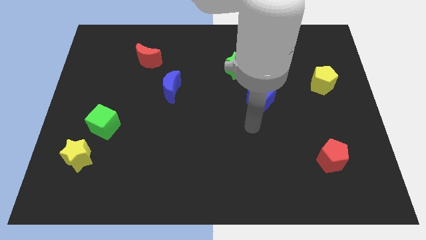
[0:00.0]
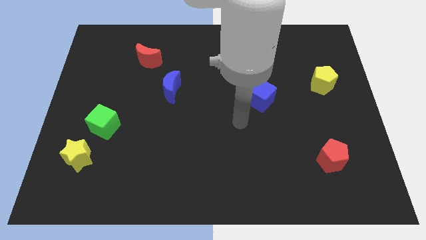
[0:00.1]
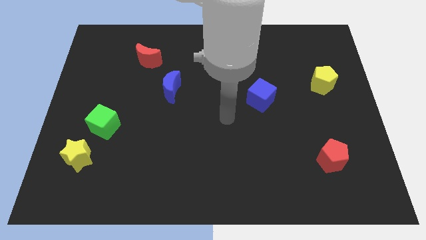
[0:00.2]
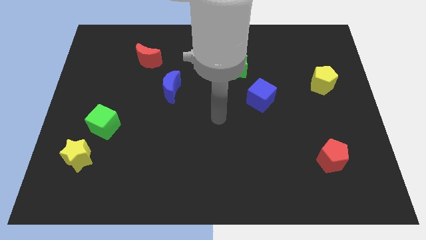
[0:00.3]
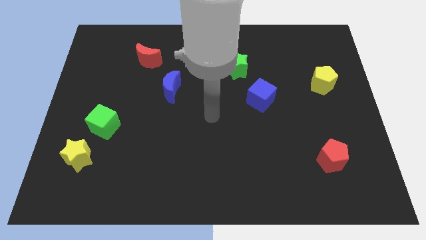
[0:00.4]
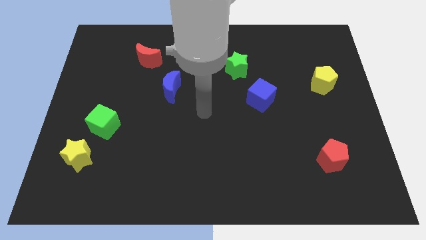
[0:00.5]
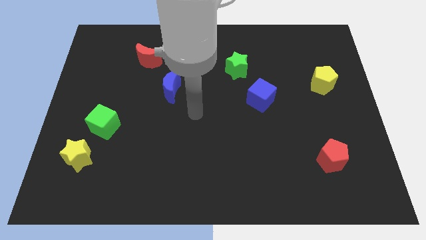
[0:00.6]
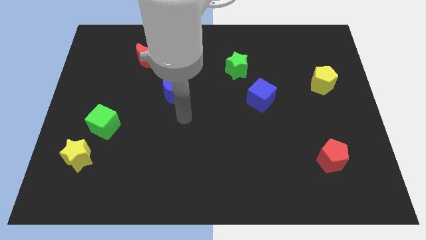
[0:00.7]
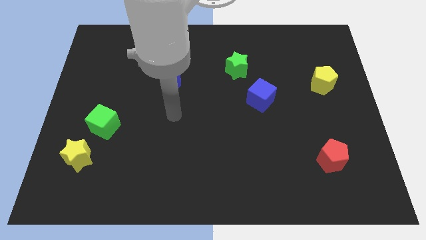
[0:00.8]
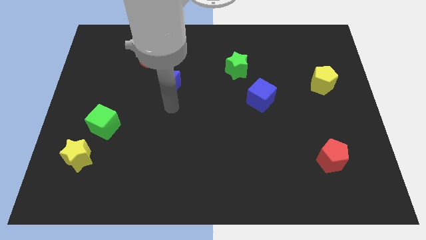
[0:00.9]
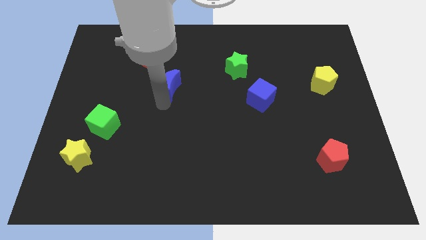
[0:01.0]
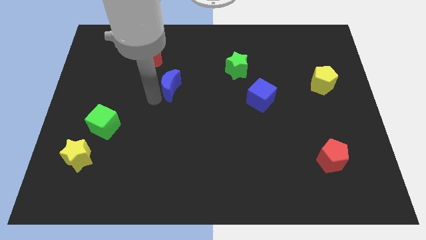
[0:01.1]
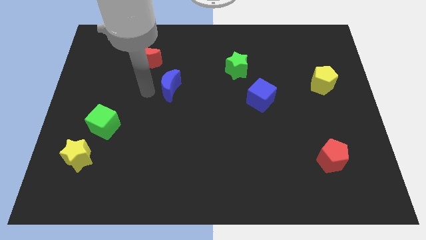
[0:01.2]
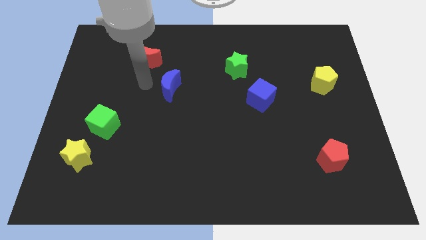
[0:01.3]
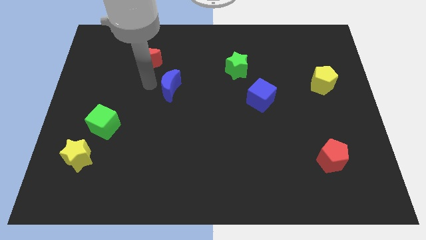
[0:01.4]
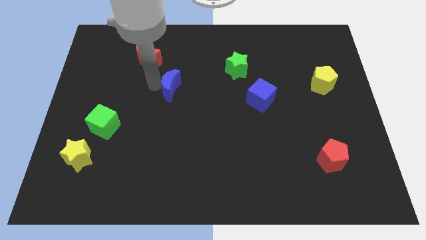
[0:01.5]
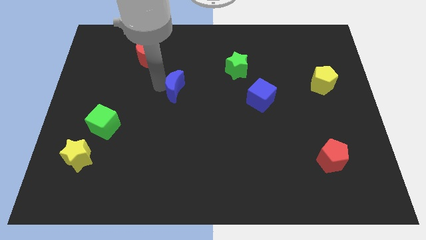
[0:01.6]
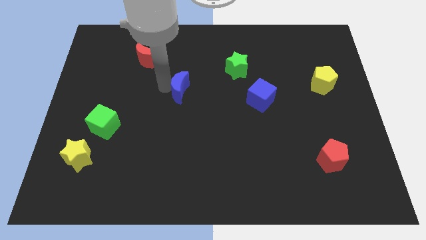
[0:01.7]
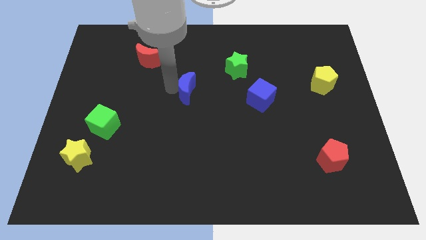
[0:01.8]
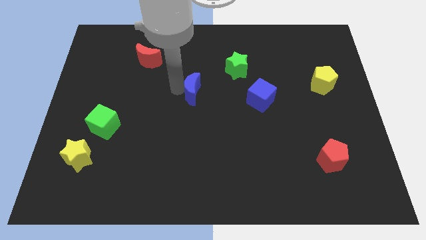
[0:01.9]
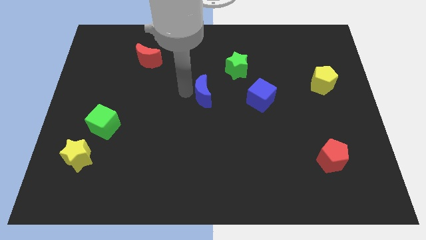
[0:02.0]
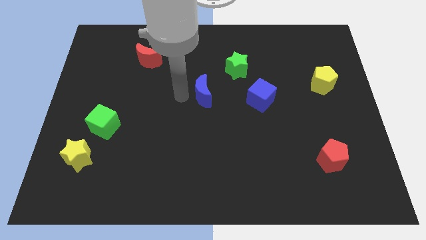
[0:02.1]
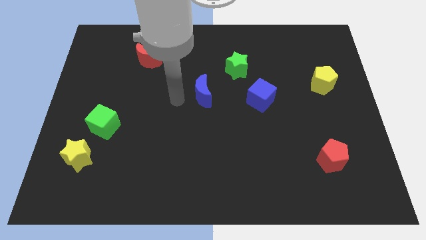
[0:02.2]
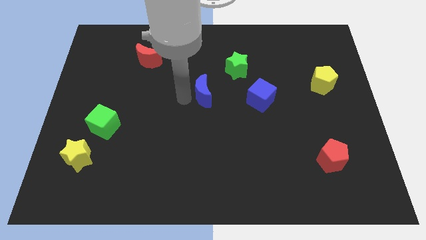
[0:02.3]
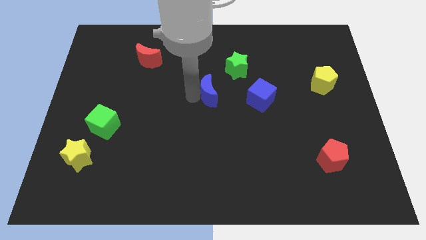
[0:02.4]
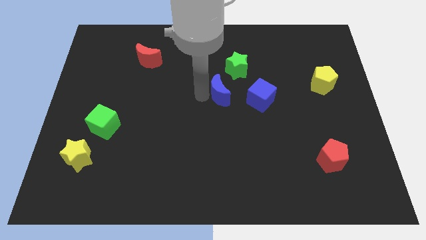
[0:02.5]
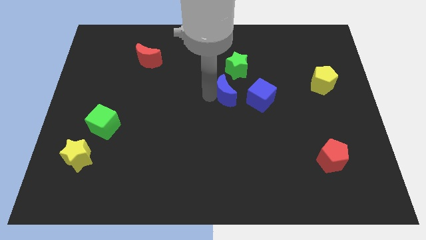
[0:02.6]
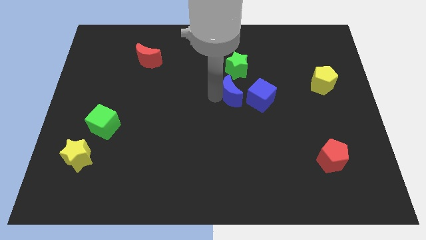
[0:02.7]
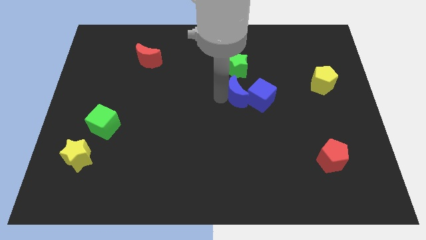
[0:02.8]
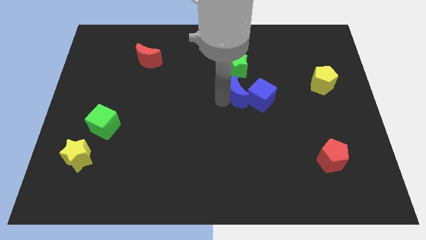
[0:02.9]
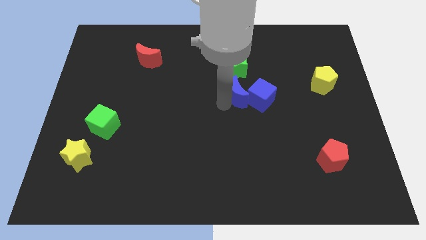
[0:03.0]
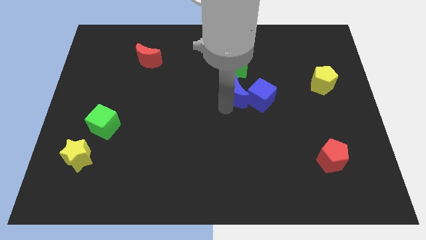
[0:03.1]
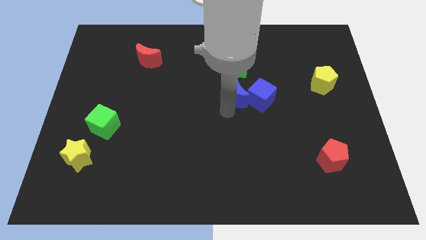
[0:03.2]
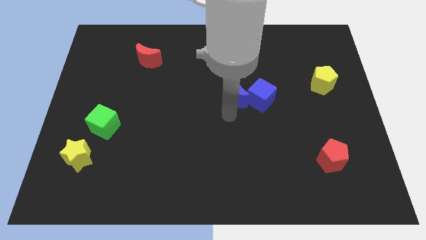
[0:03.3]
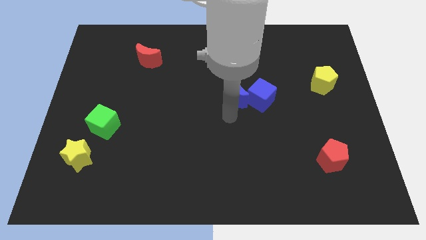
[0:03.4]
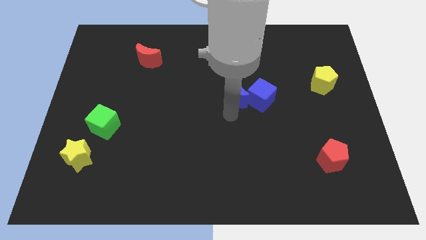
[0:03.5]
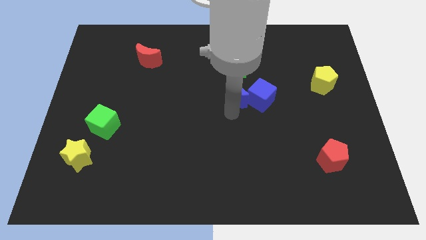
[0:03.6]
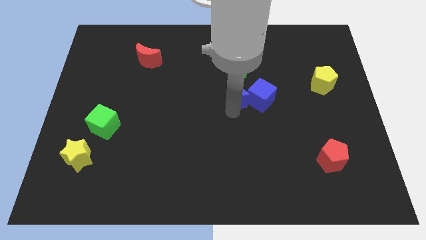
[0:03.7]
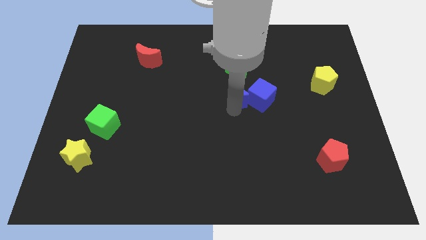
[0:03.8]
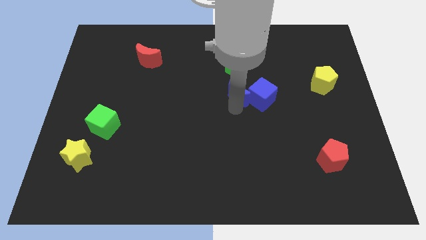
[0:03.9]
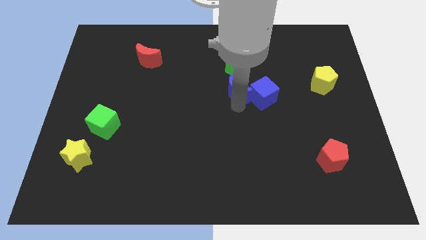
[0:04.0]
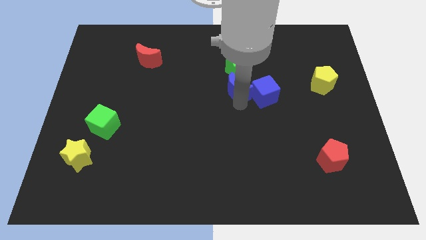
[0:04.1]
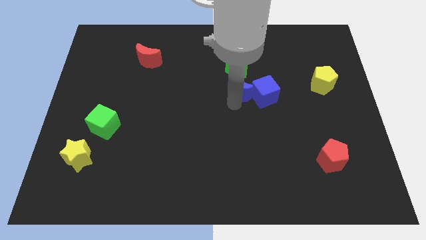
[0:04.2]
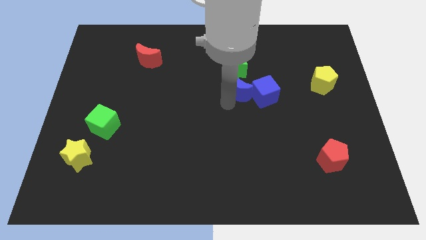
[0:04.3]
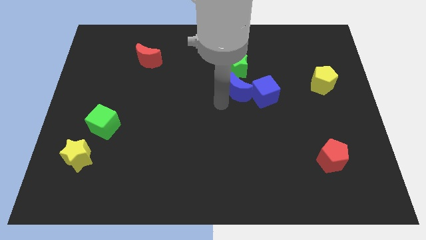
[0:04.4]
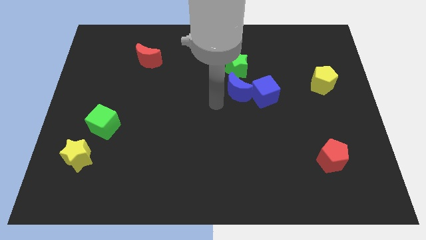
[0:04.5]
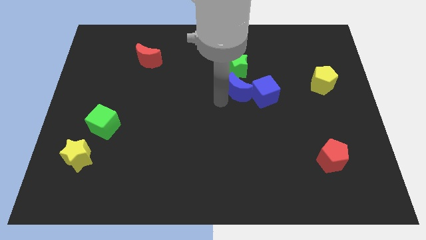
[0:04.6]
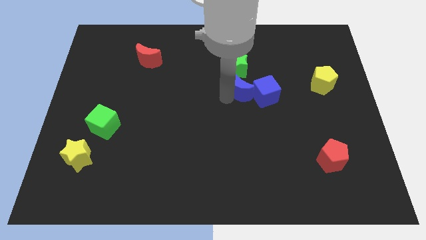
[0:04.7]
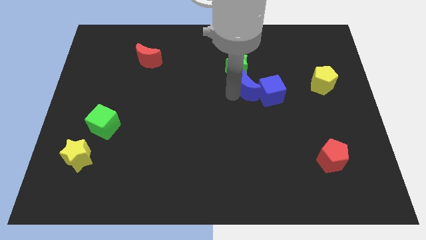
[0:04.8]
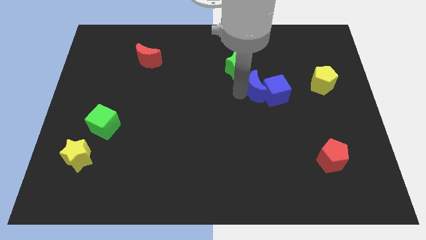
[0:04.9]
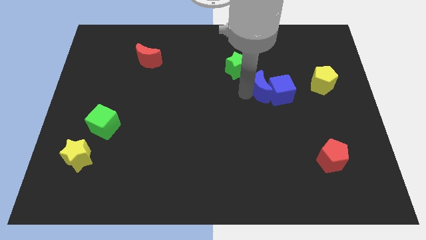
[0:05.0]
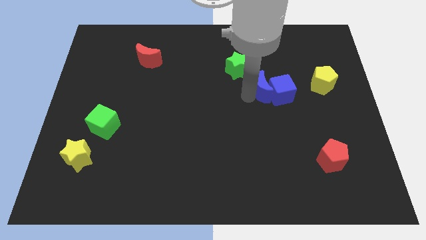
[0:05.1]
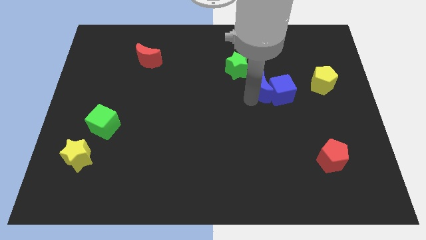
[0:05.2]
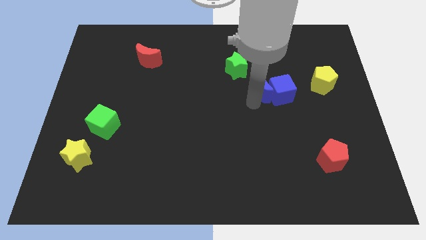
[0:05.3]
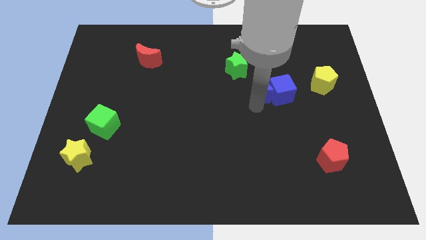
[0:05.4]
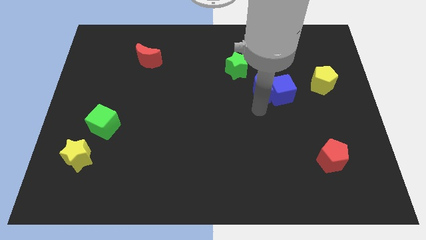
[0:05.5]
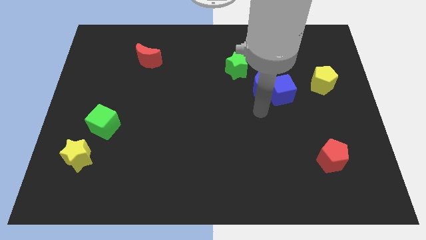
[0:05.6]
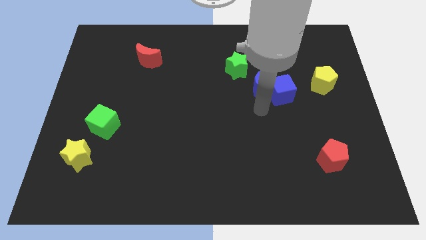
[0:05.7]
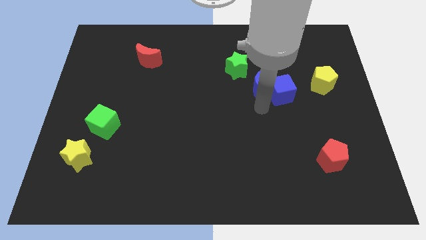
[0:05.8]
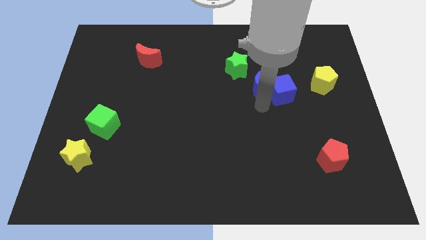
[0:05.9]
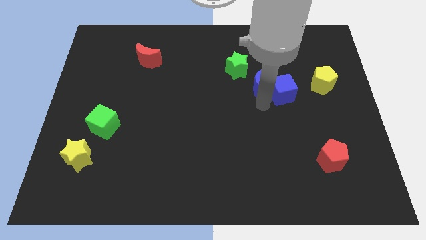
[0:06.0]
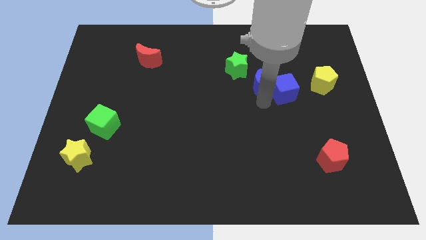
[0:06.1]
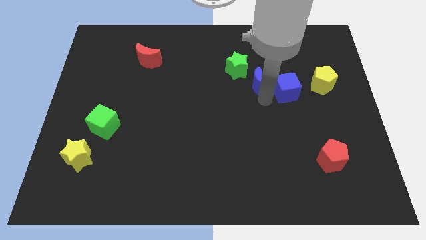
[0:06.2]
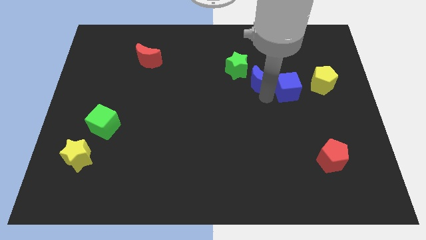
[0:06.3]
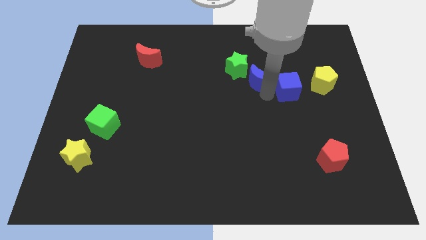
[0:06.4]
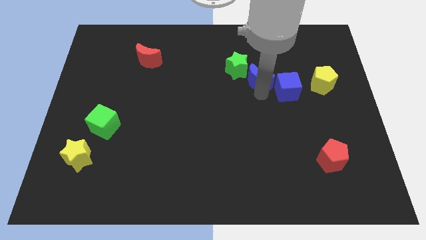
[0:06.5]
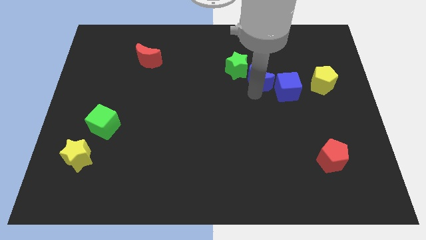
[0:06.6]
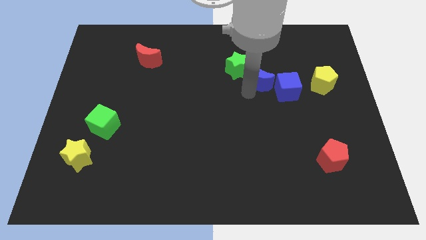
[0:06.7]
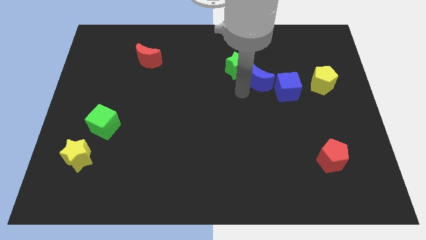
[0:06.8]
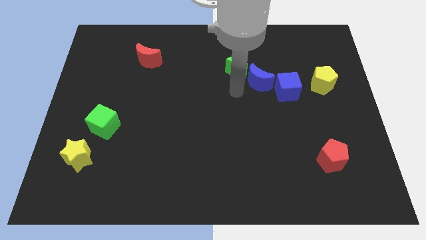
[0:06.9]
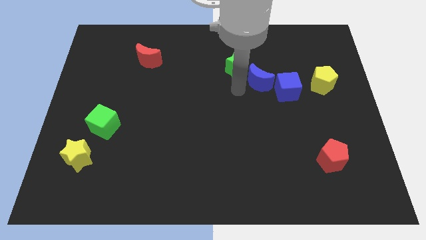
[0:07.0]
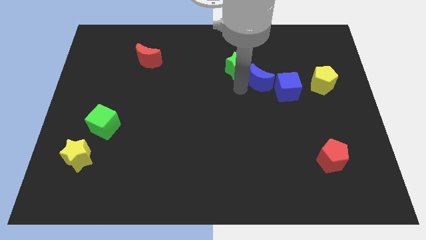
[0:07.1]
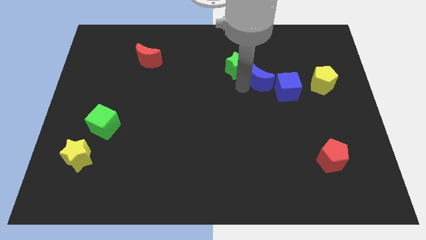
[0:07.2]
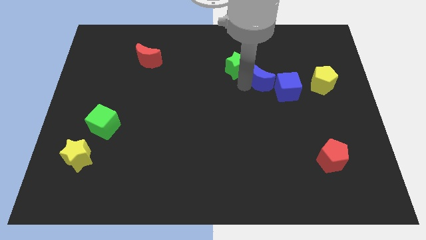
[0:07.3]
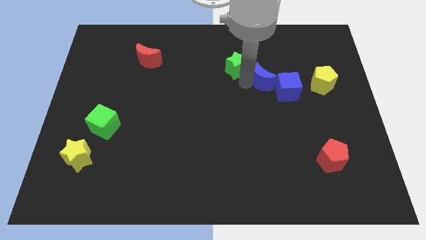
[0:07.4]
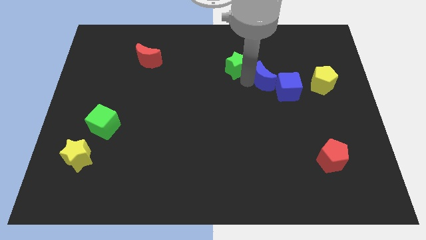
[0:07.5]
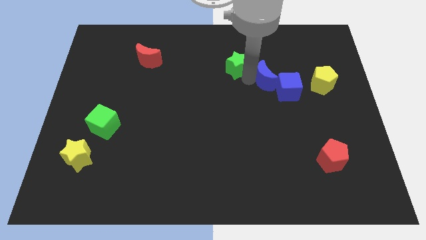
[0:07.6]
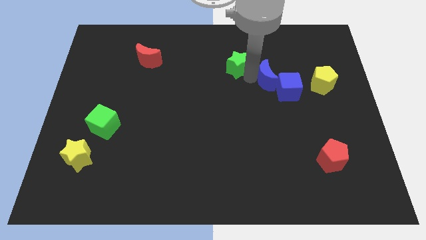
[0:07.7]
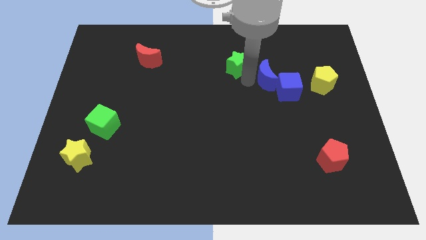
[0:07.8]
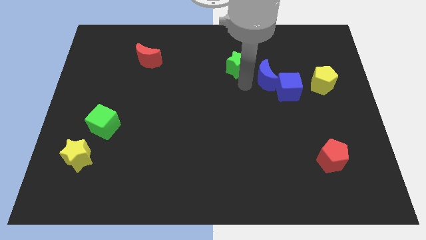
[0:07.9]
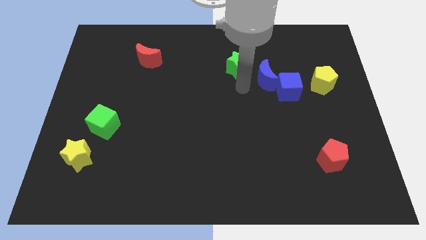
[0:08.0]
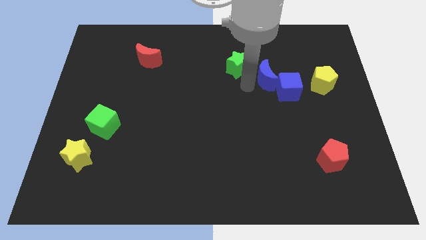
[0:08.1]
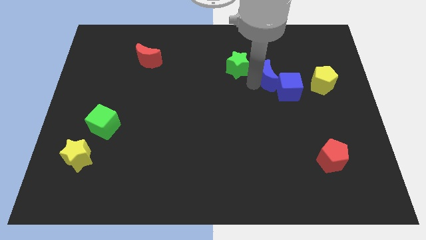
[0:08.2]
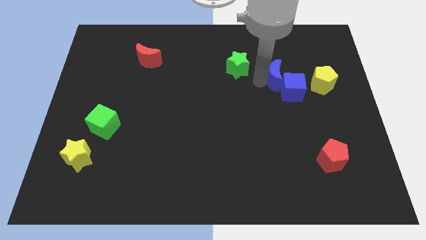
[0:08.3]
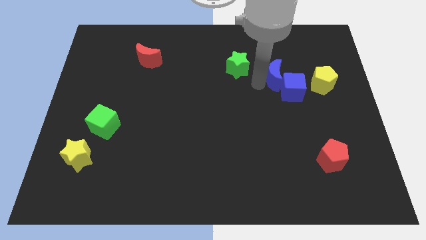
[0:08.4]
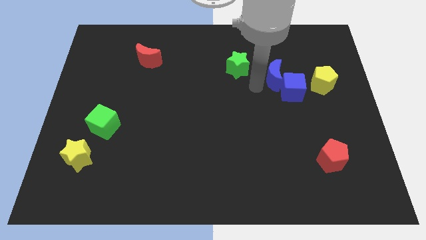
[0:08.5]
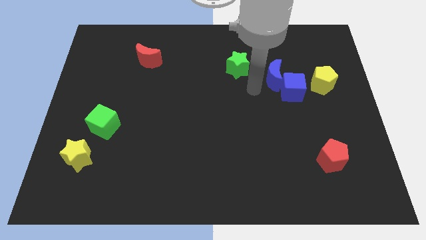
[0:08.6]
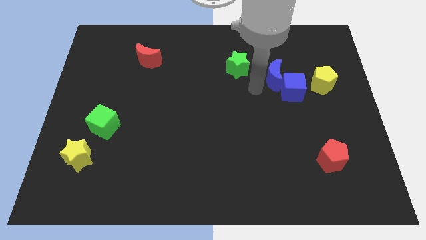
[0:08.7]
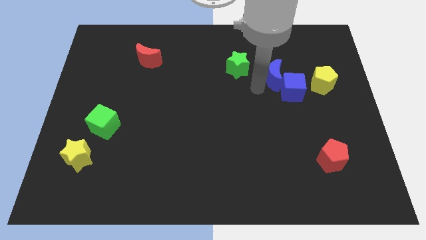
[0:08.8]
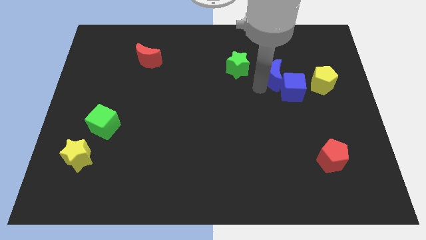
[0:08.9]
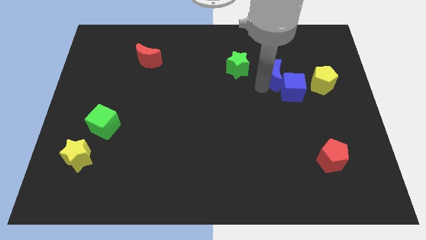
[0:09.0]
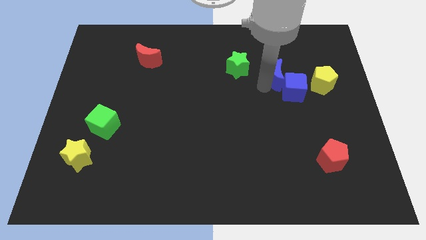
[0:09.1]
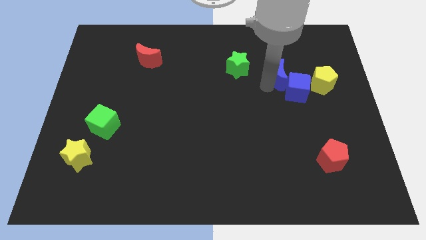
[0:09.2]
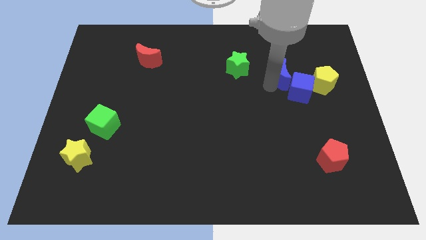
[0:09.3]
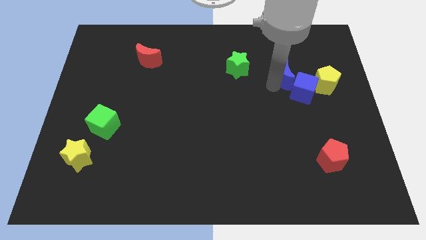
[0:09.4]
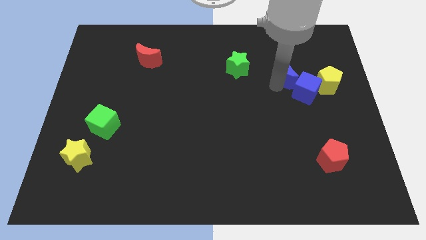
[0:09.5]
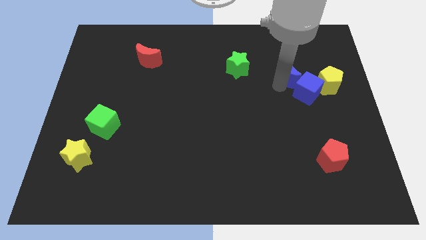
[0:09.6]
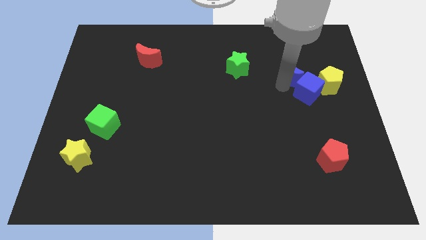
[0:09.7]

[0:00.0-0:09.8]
slide the blue moon to the top left of the yellow pentagon
